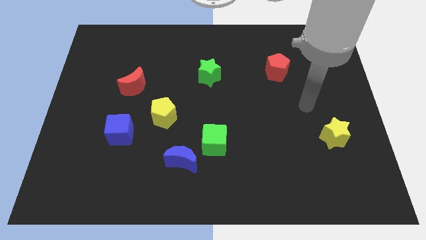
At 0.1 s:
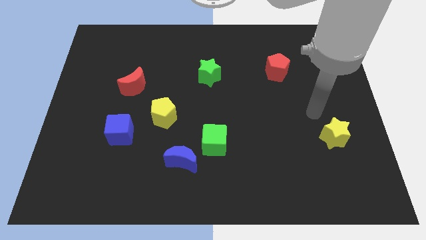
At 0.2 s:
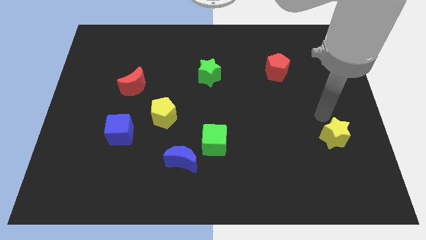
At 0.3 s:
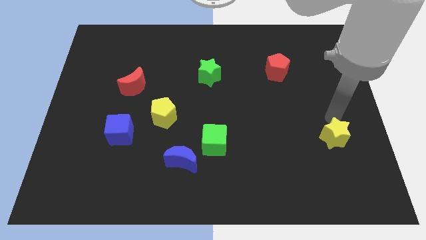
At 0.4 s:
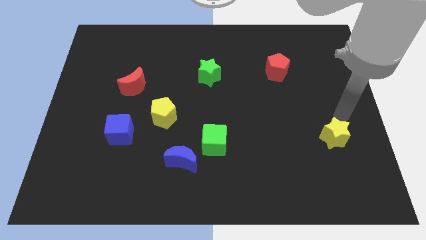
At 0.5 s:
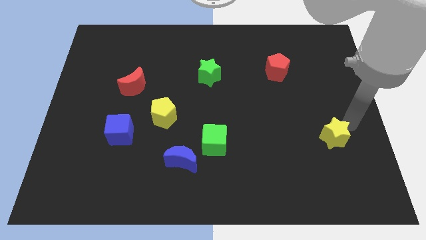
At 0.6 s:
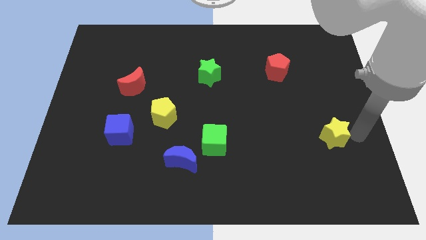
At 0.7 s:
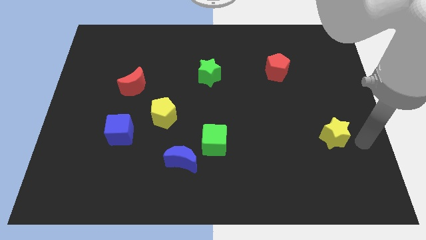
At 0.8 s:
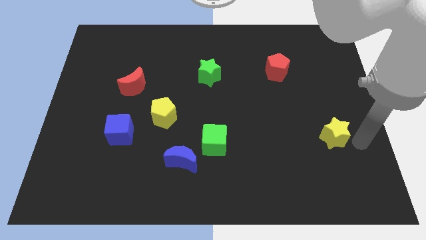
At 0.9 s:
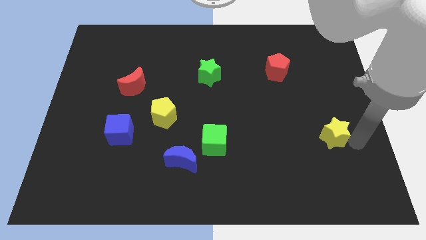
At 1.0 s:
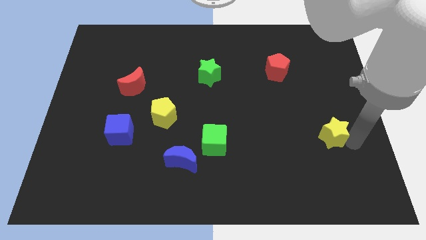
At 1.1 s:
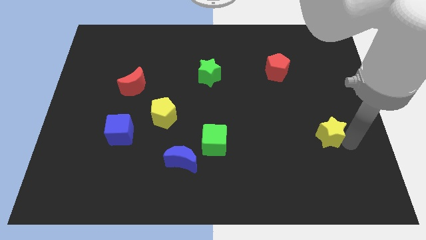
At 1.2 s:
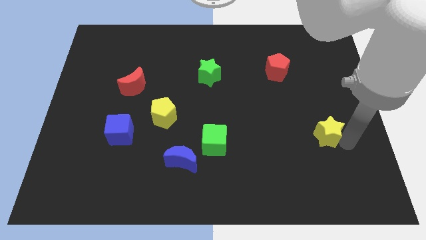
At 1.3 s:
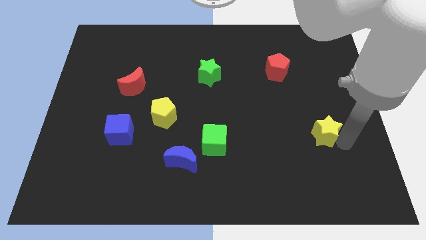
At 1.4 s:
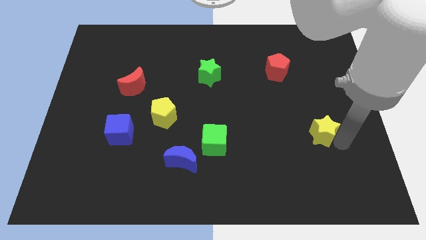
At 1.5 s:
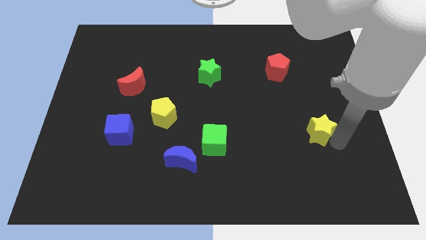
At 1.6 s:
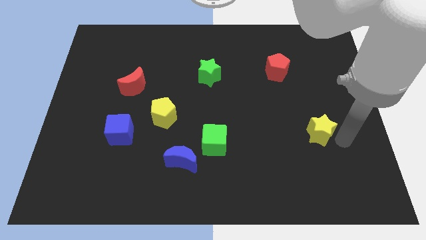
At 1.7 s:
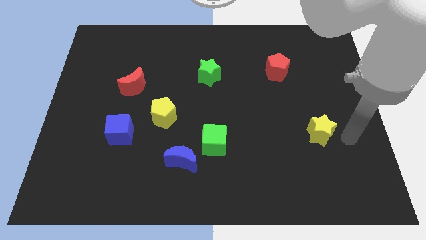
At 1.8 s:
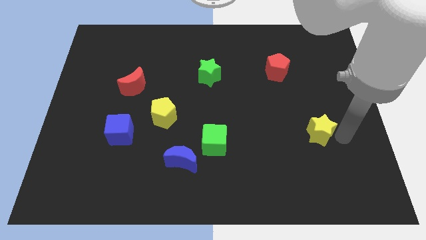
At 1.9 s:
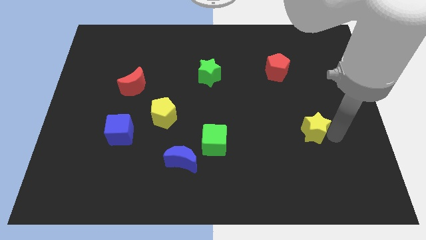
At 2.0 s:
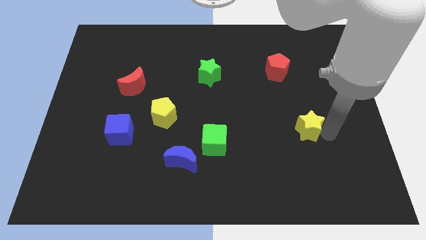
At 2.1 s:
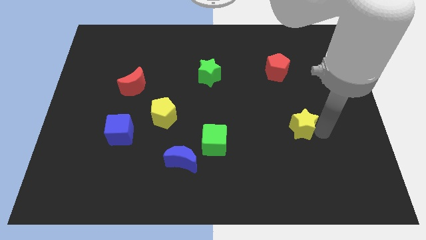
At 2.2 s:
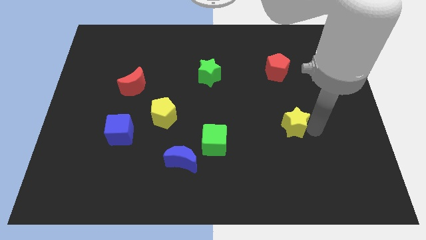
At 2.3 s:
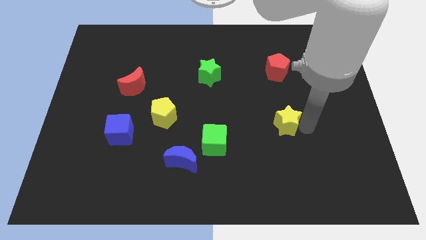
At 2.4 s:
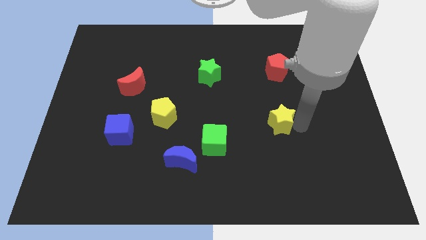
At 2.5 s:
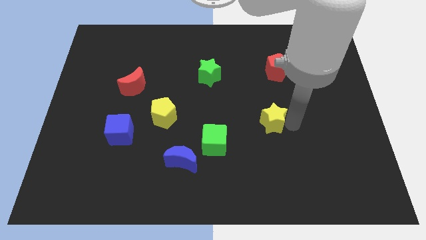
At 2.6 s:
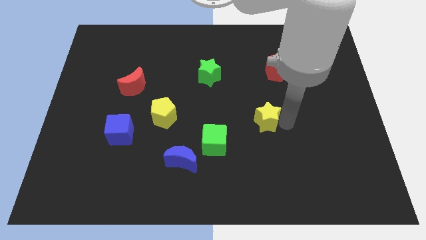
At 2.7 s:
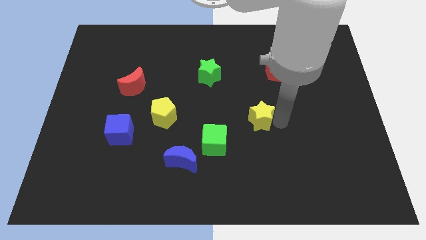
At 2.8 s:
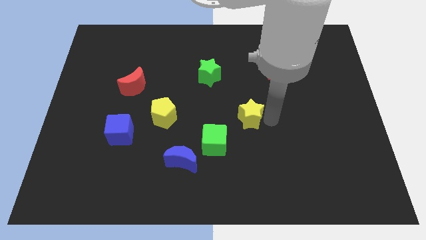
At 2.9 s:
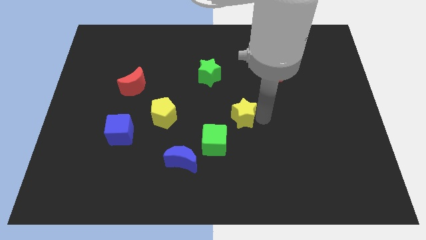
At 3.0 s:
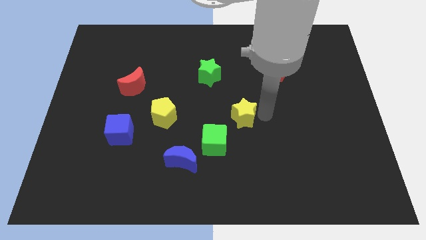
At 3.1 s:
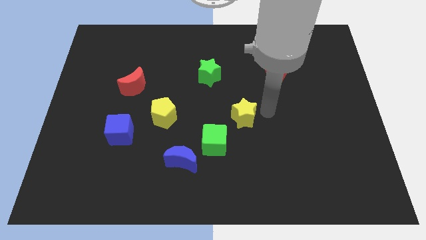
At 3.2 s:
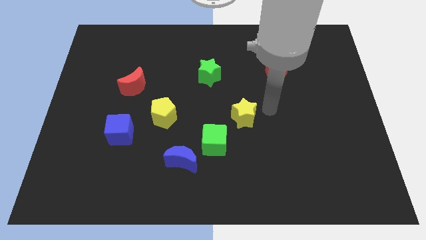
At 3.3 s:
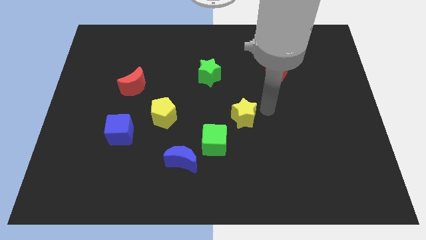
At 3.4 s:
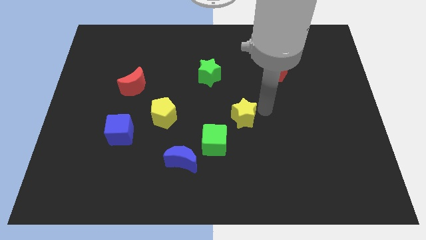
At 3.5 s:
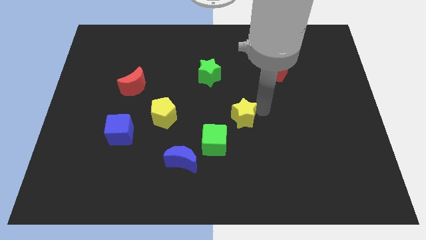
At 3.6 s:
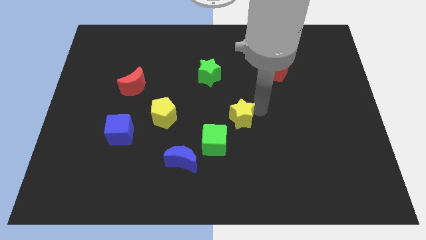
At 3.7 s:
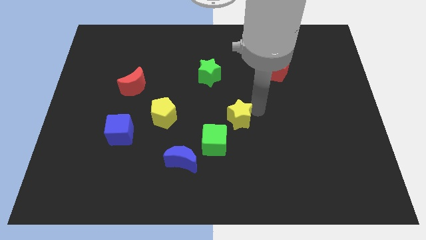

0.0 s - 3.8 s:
push the yellow star left

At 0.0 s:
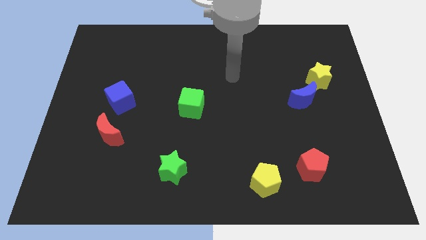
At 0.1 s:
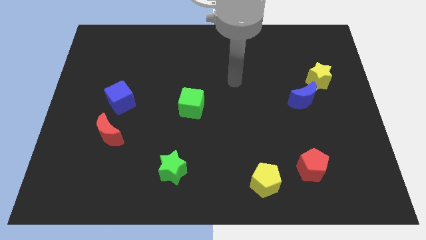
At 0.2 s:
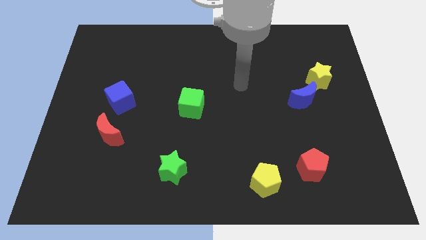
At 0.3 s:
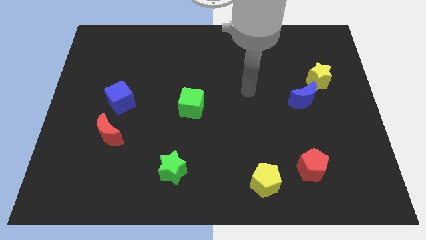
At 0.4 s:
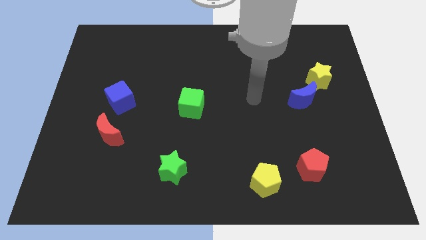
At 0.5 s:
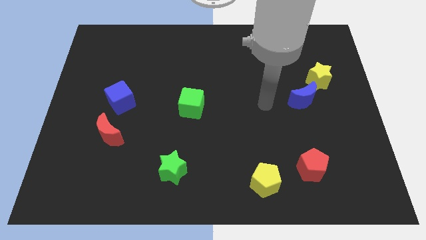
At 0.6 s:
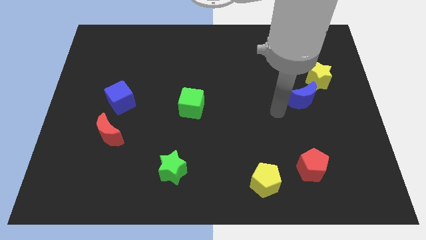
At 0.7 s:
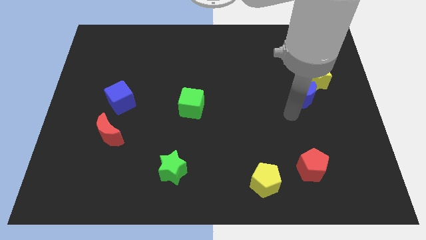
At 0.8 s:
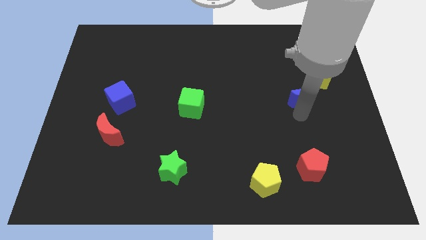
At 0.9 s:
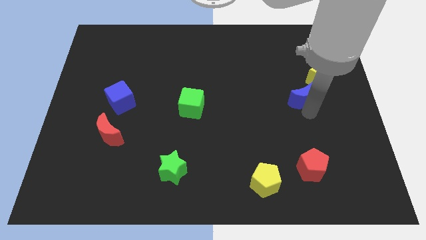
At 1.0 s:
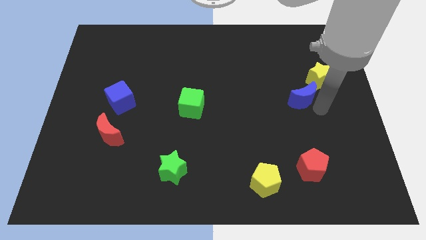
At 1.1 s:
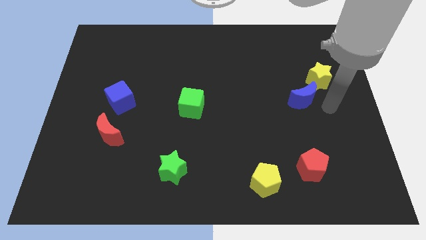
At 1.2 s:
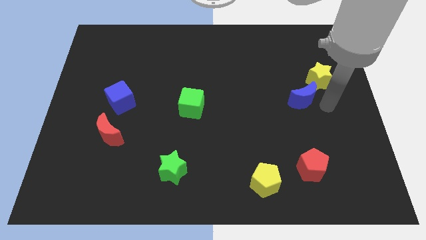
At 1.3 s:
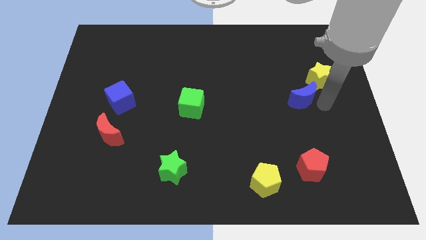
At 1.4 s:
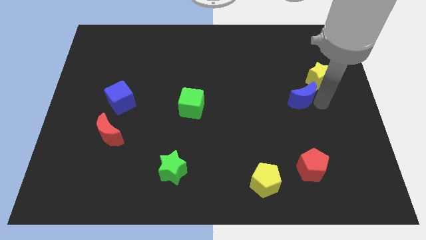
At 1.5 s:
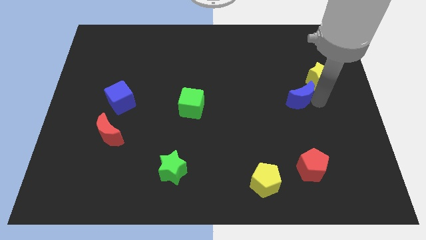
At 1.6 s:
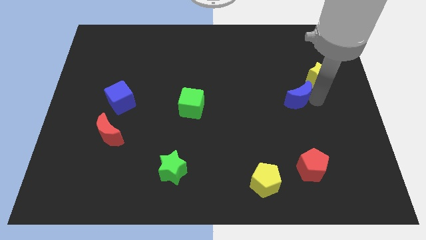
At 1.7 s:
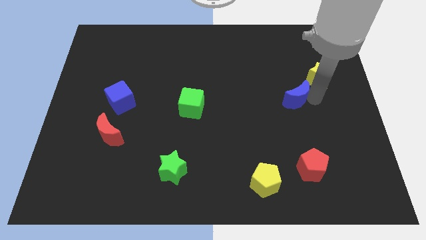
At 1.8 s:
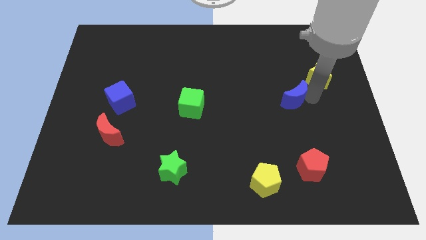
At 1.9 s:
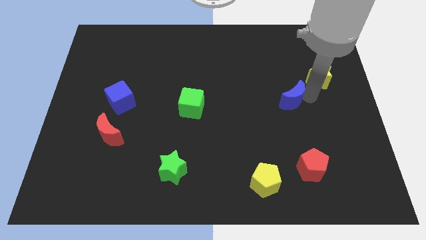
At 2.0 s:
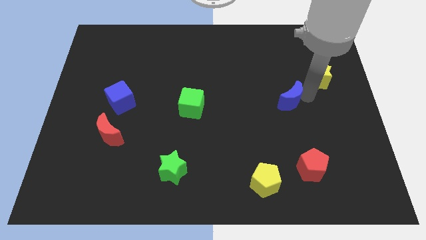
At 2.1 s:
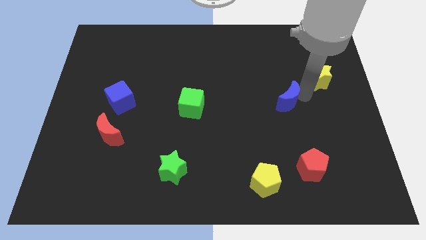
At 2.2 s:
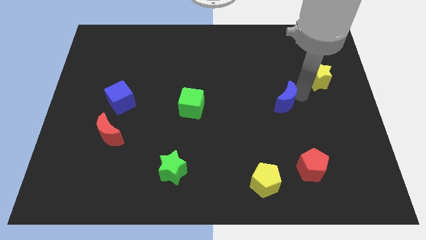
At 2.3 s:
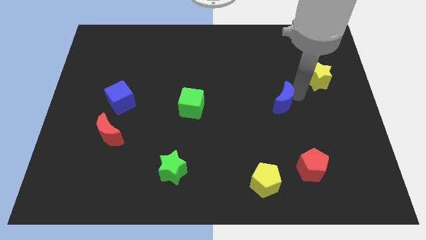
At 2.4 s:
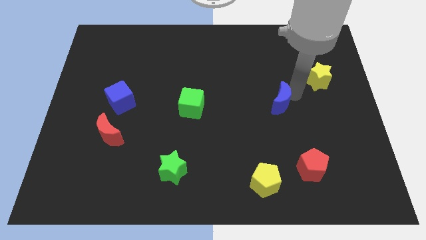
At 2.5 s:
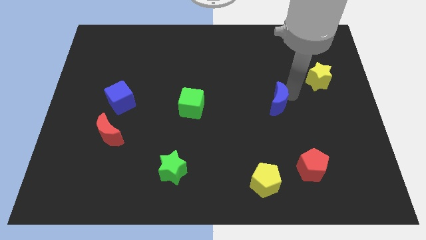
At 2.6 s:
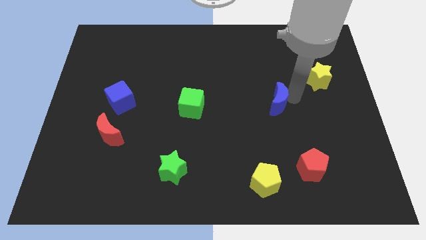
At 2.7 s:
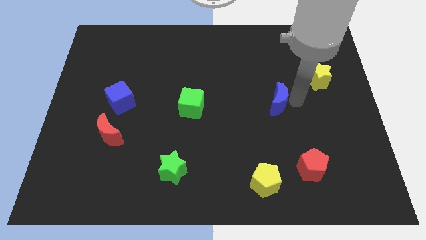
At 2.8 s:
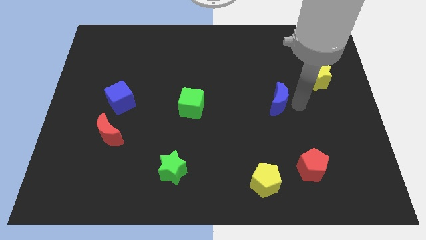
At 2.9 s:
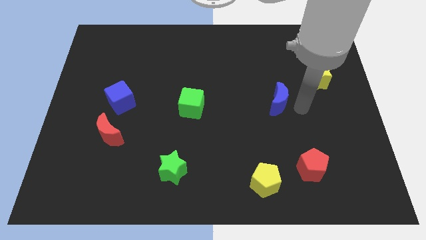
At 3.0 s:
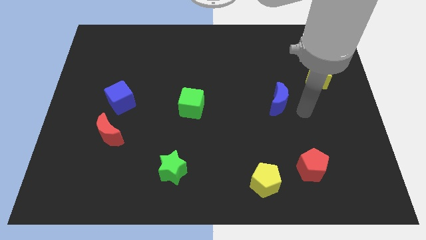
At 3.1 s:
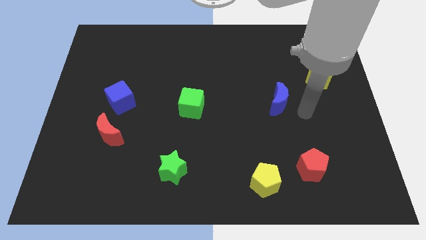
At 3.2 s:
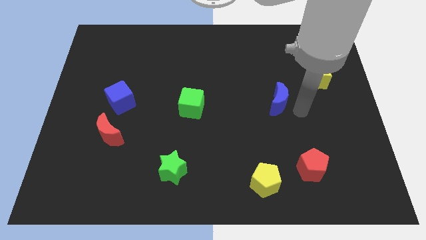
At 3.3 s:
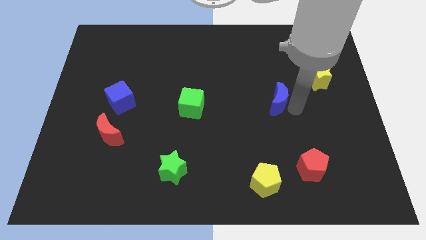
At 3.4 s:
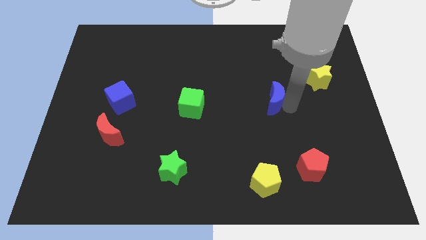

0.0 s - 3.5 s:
slide the blue moon a little bit to the left

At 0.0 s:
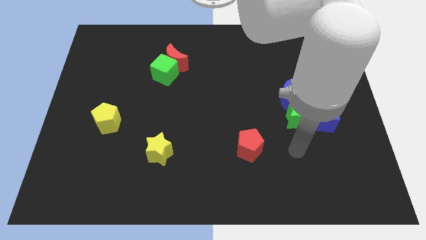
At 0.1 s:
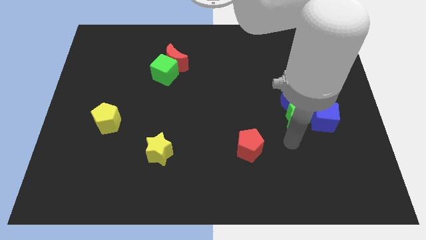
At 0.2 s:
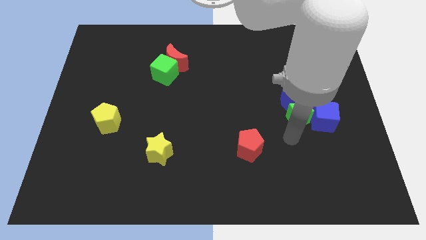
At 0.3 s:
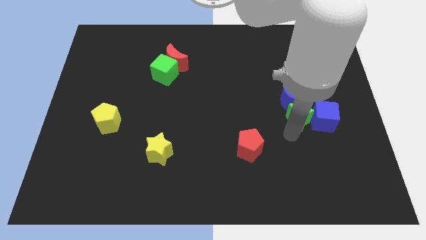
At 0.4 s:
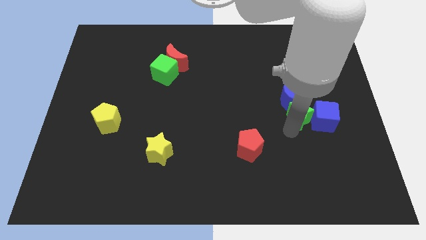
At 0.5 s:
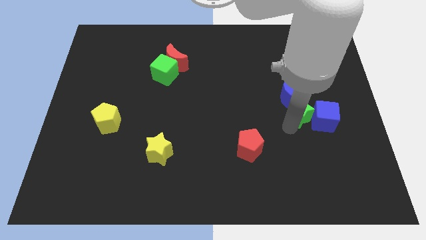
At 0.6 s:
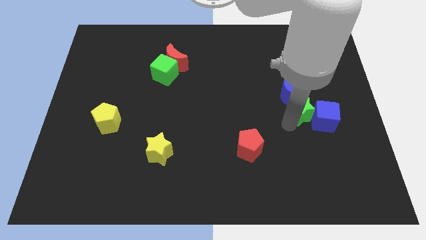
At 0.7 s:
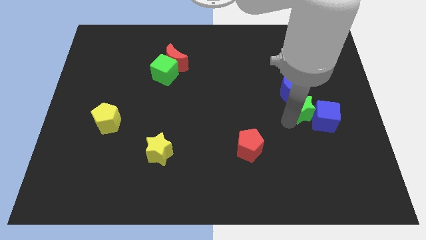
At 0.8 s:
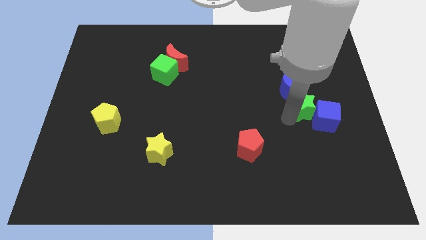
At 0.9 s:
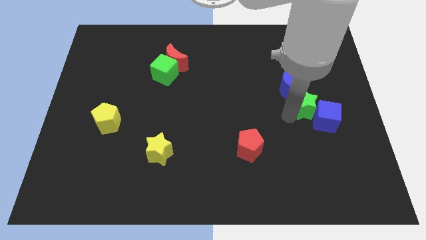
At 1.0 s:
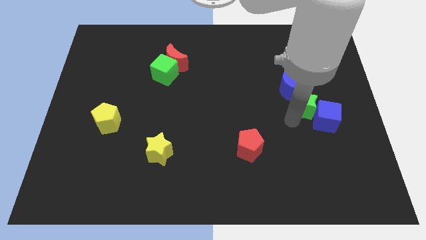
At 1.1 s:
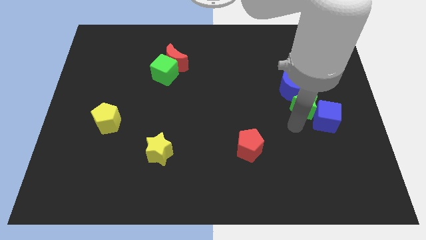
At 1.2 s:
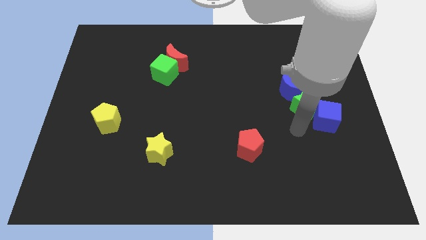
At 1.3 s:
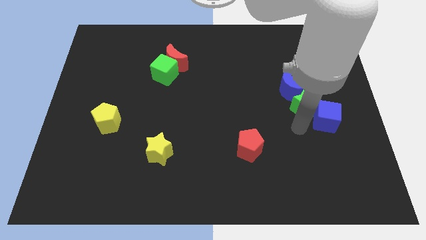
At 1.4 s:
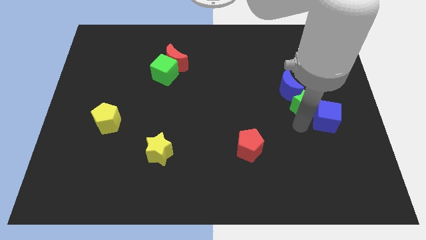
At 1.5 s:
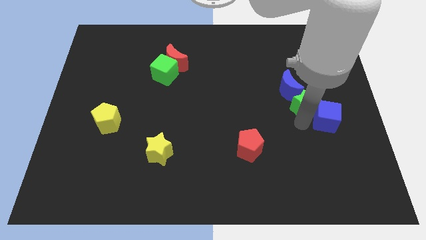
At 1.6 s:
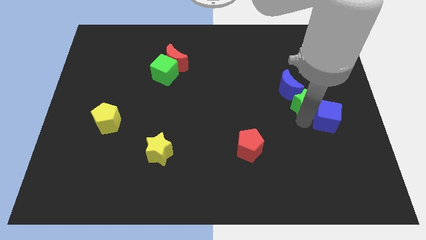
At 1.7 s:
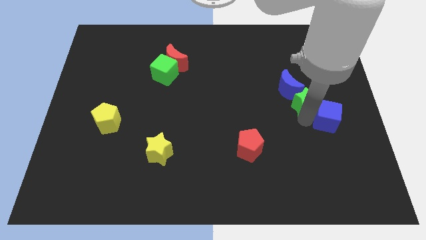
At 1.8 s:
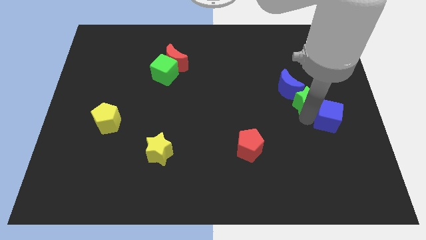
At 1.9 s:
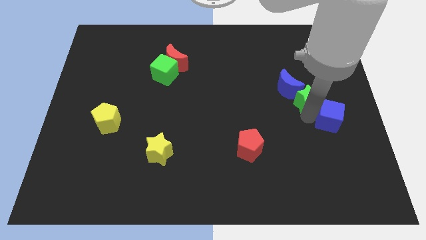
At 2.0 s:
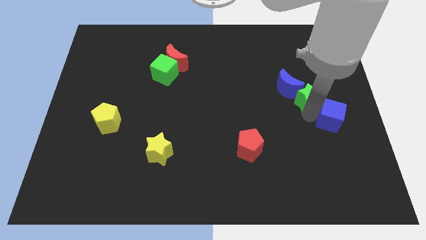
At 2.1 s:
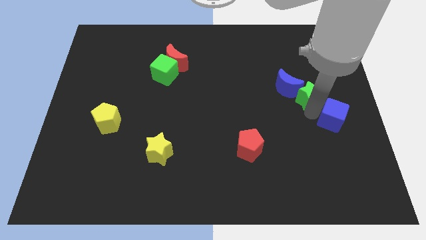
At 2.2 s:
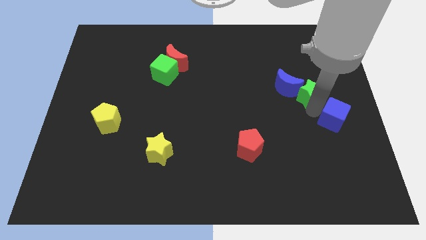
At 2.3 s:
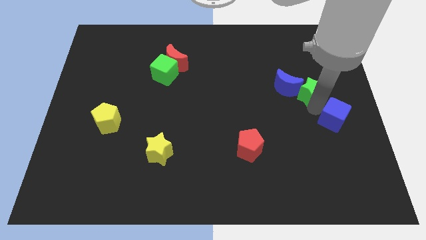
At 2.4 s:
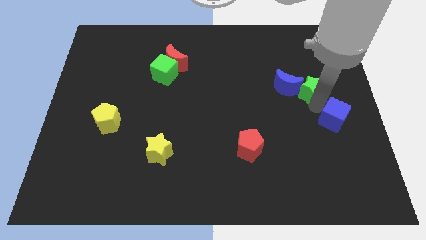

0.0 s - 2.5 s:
slide the green star a bit up
